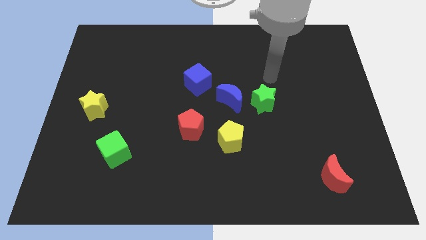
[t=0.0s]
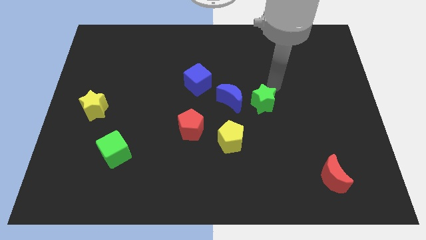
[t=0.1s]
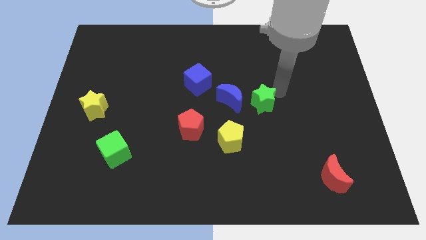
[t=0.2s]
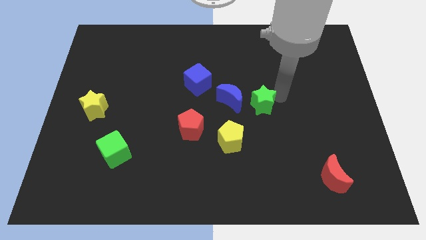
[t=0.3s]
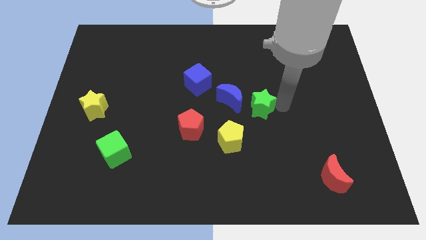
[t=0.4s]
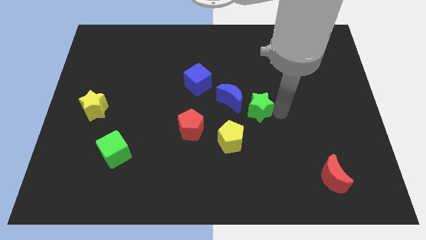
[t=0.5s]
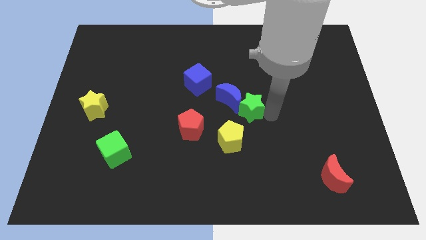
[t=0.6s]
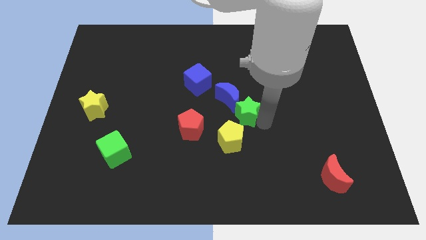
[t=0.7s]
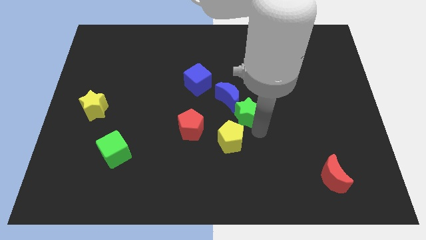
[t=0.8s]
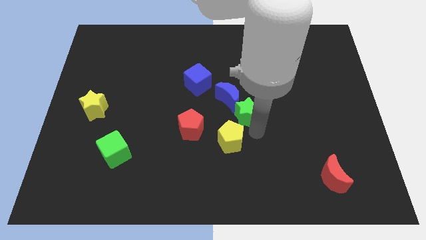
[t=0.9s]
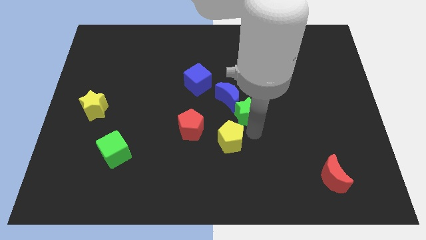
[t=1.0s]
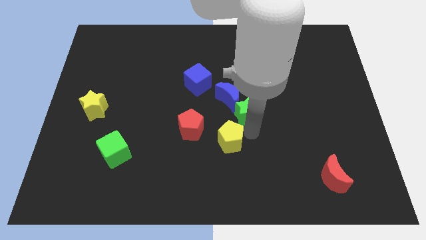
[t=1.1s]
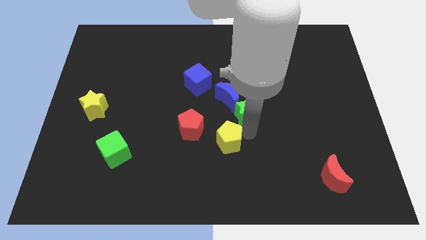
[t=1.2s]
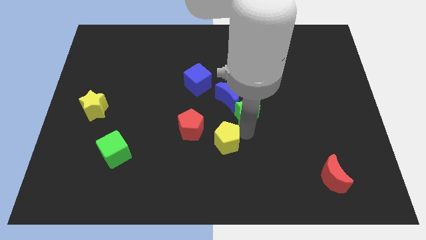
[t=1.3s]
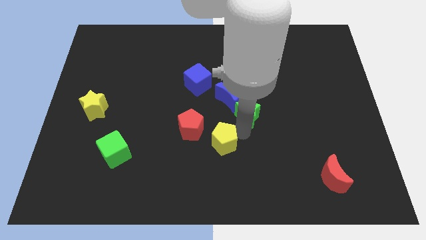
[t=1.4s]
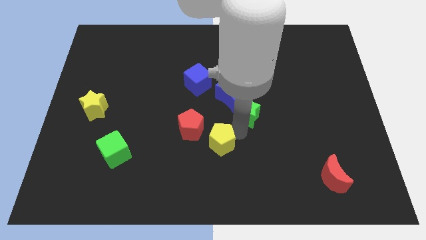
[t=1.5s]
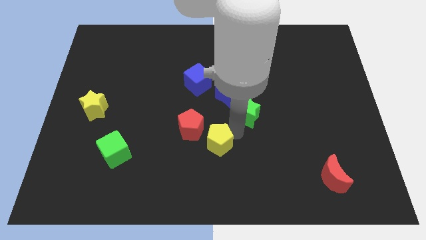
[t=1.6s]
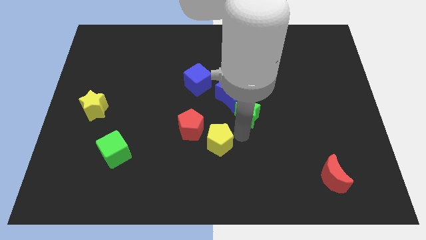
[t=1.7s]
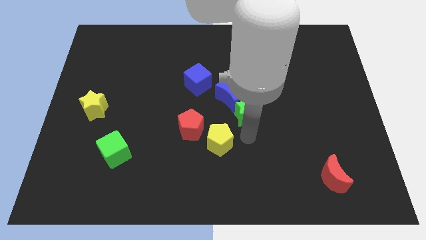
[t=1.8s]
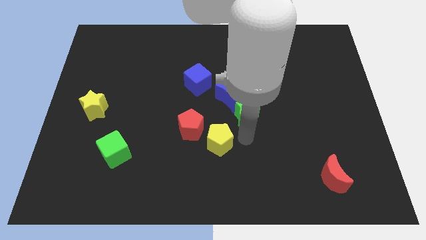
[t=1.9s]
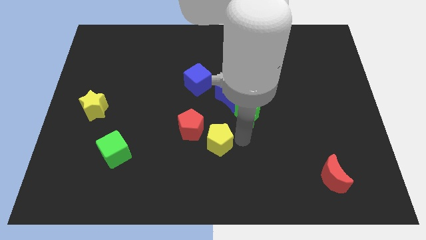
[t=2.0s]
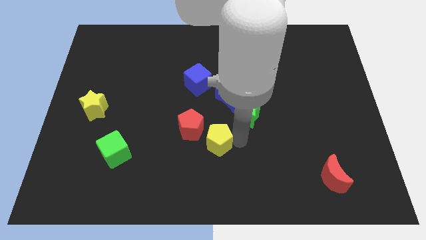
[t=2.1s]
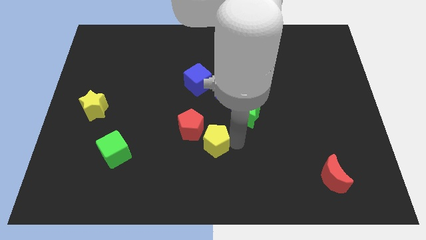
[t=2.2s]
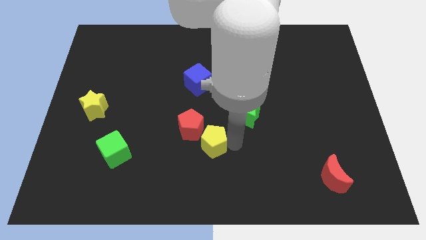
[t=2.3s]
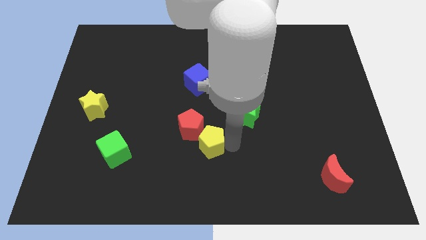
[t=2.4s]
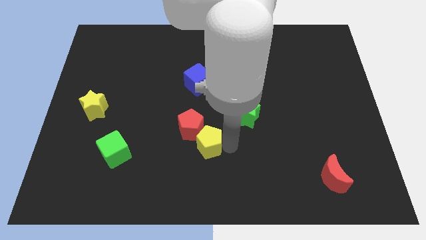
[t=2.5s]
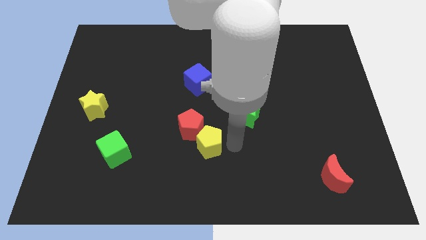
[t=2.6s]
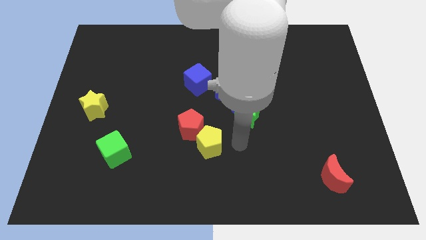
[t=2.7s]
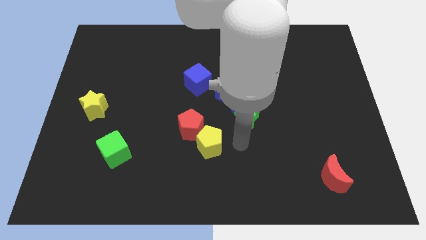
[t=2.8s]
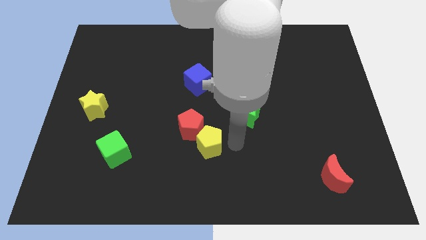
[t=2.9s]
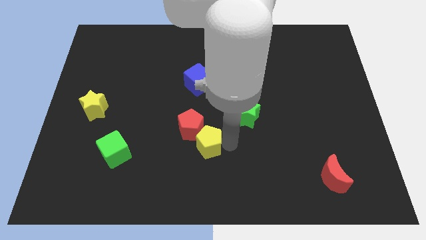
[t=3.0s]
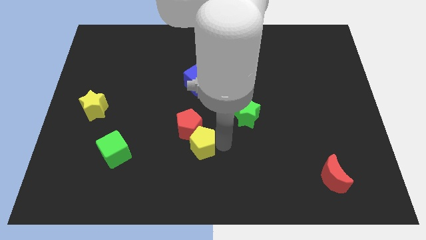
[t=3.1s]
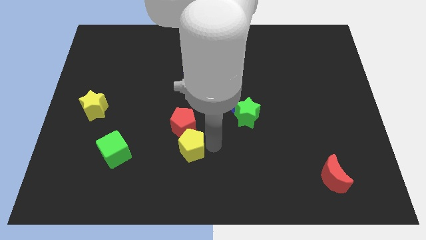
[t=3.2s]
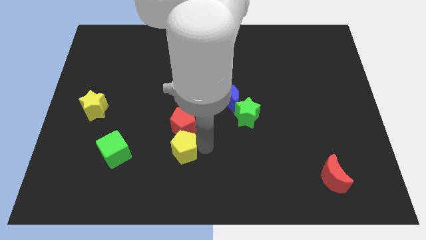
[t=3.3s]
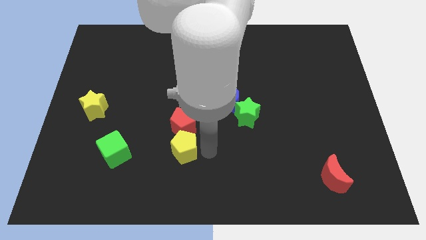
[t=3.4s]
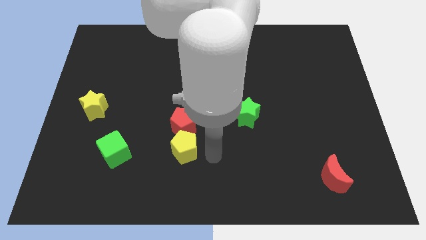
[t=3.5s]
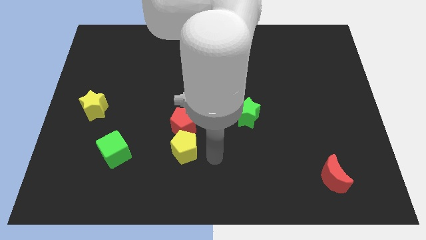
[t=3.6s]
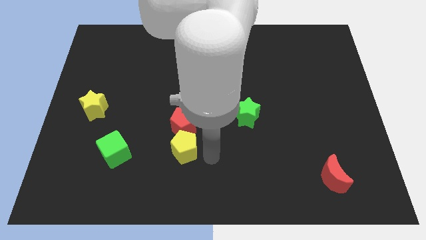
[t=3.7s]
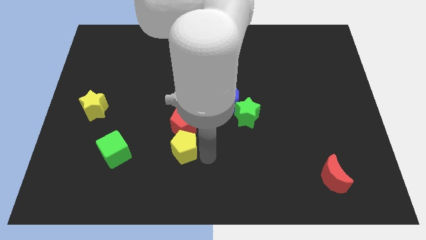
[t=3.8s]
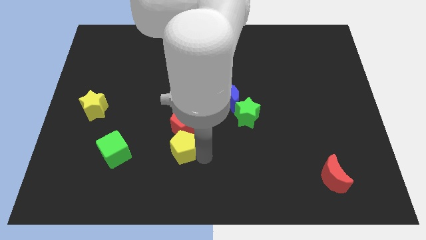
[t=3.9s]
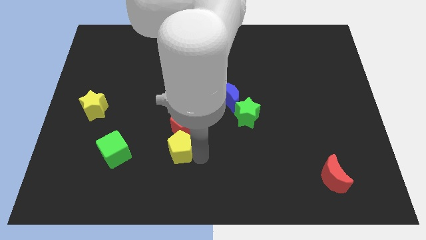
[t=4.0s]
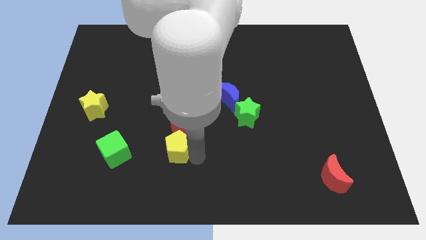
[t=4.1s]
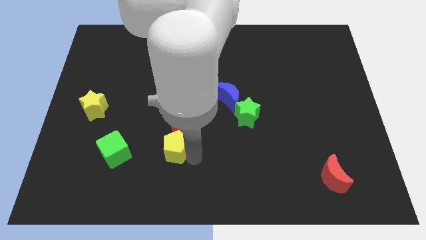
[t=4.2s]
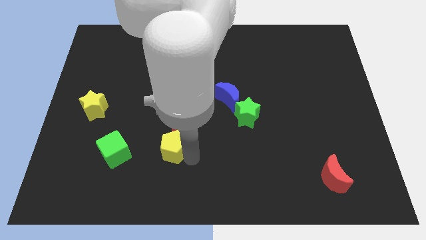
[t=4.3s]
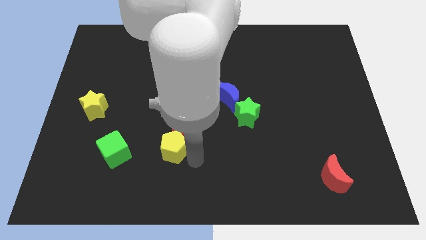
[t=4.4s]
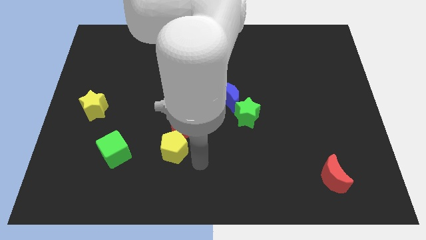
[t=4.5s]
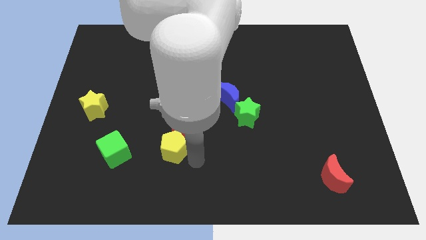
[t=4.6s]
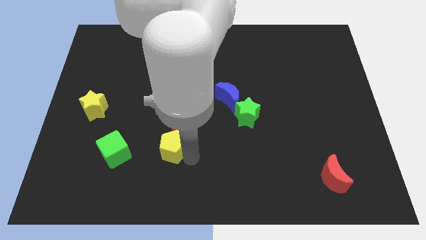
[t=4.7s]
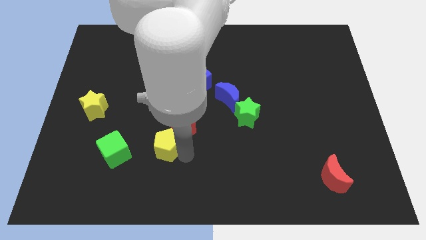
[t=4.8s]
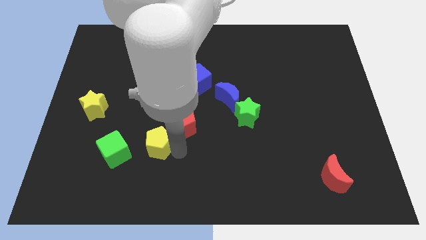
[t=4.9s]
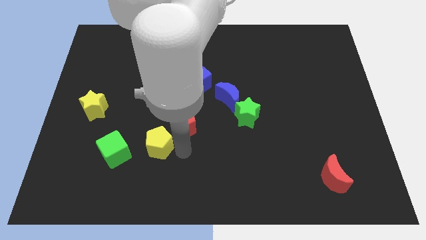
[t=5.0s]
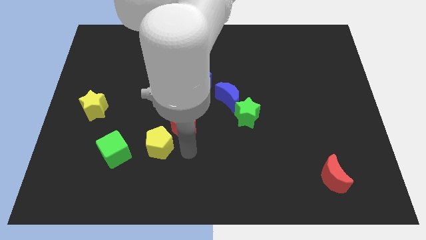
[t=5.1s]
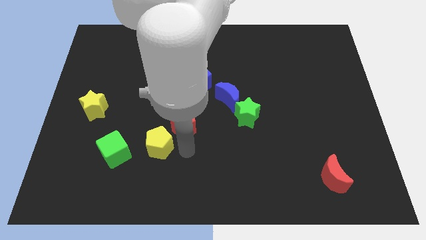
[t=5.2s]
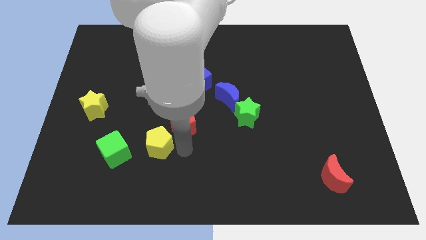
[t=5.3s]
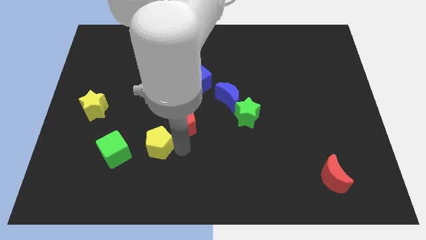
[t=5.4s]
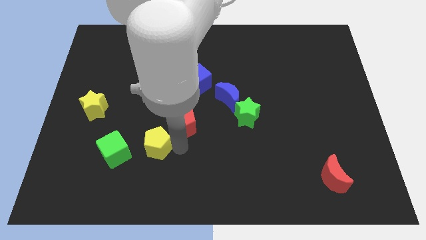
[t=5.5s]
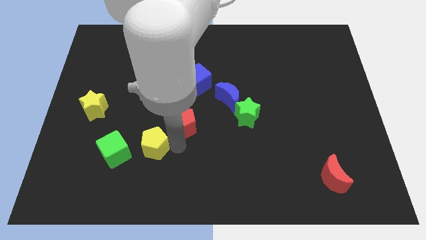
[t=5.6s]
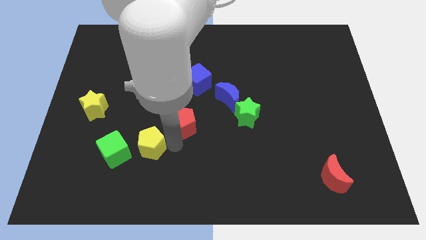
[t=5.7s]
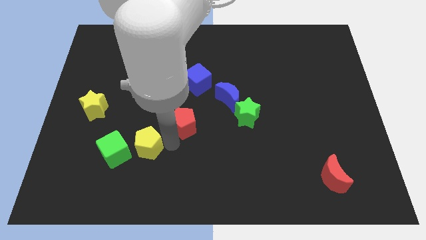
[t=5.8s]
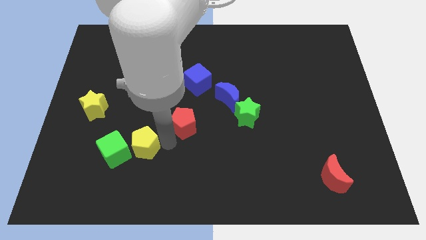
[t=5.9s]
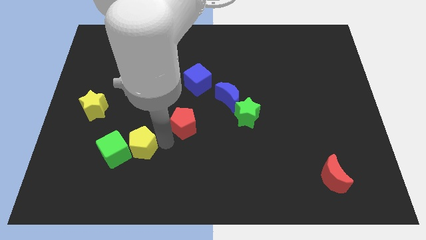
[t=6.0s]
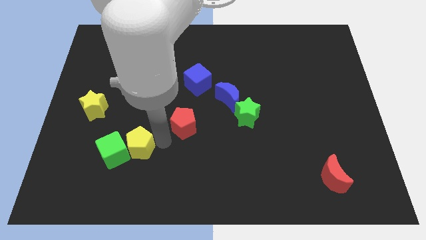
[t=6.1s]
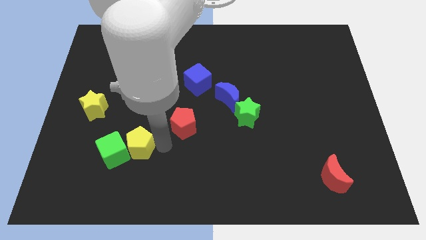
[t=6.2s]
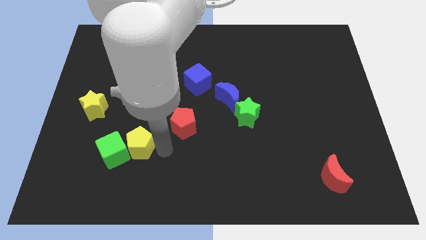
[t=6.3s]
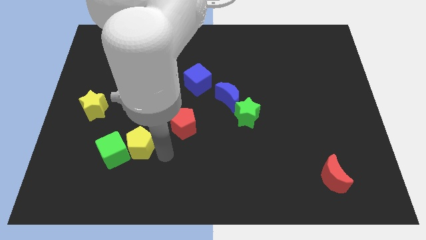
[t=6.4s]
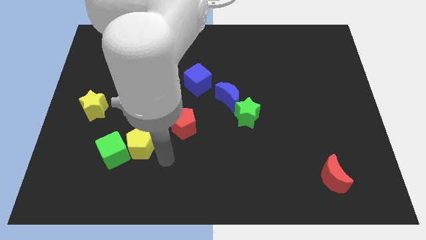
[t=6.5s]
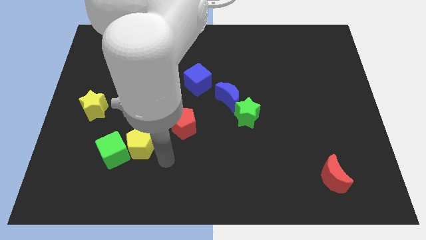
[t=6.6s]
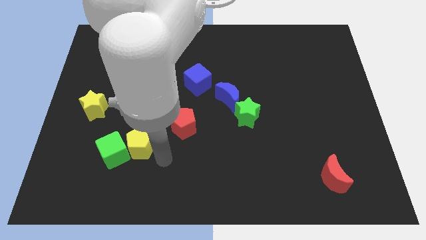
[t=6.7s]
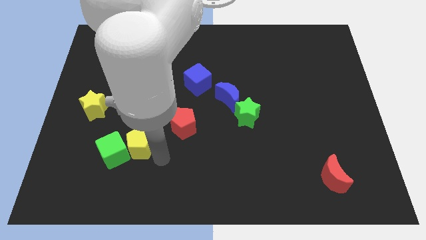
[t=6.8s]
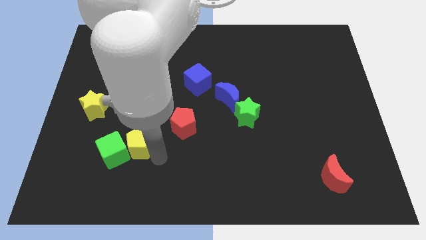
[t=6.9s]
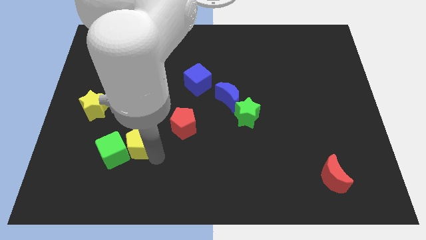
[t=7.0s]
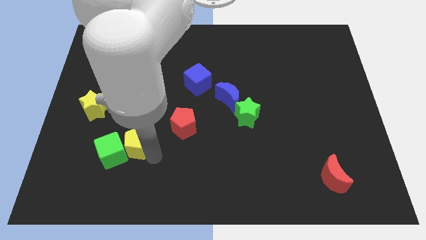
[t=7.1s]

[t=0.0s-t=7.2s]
move the yellow pentagon to the left

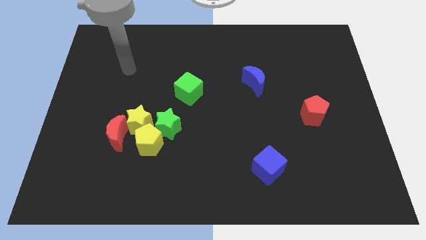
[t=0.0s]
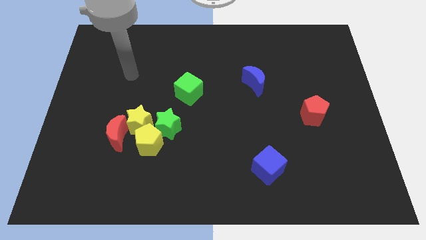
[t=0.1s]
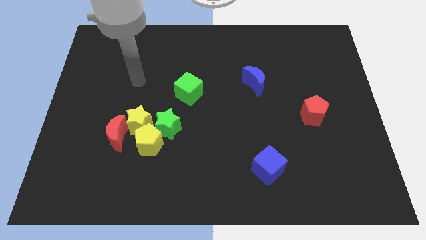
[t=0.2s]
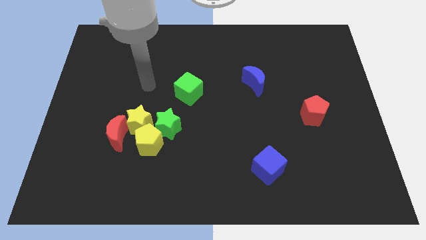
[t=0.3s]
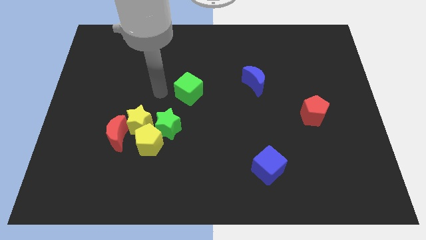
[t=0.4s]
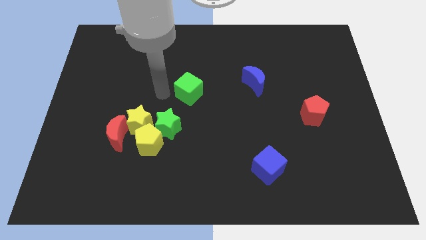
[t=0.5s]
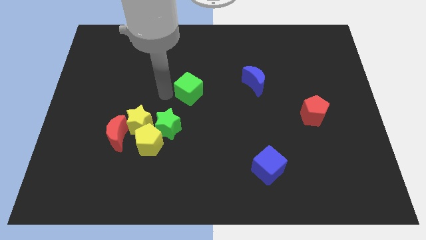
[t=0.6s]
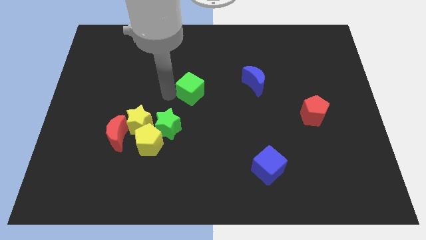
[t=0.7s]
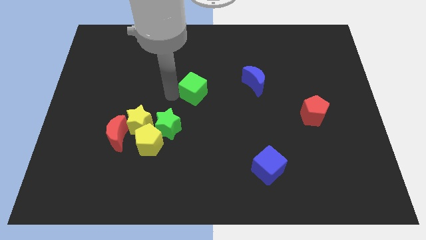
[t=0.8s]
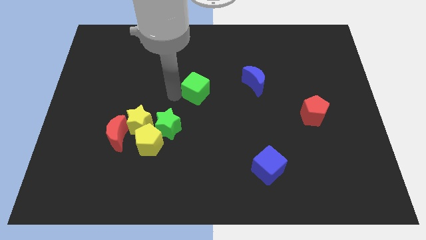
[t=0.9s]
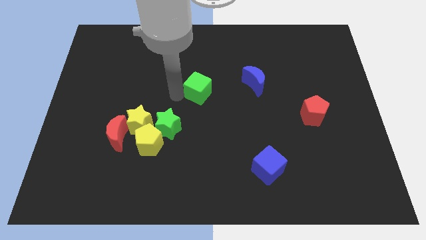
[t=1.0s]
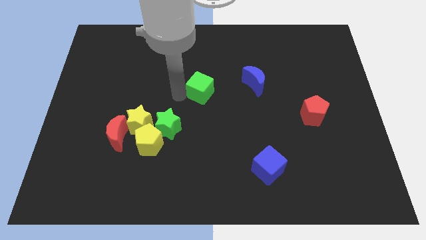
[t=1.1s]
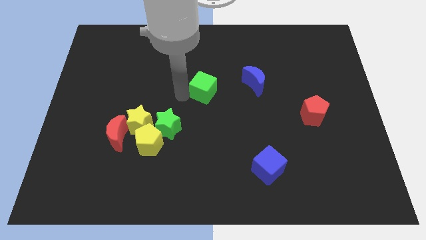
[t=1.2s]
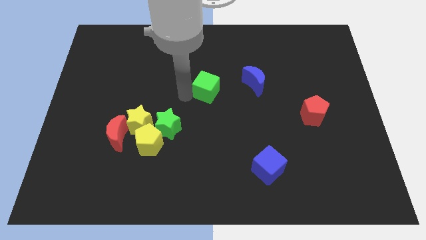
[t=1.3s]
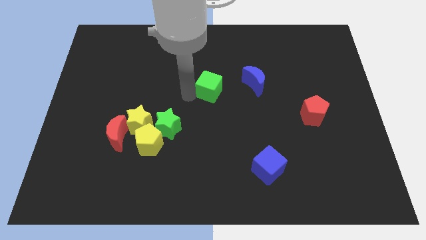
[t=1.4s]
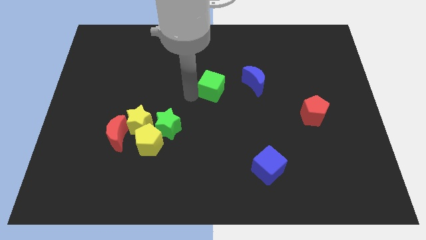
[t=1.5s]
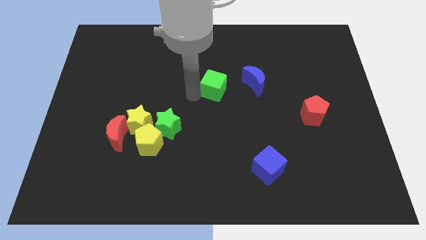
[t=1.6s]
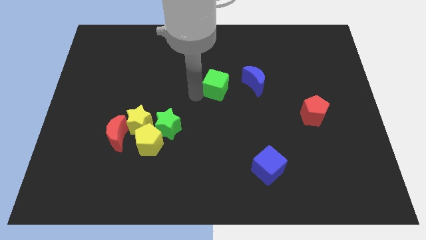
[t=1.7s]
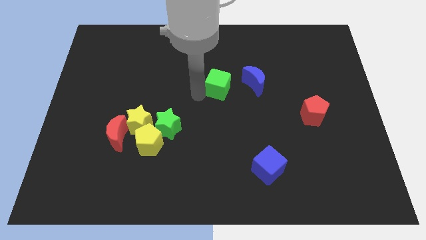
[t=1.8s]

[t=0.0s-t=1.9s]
move the green cube to the right a little
